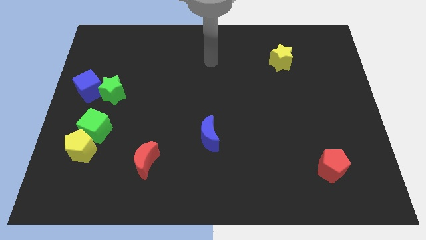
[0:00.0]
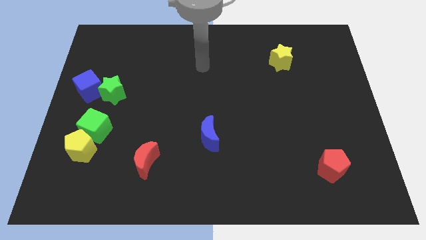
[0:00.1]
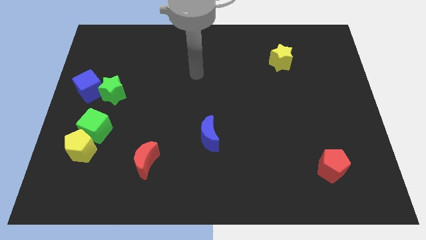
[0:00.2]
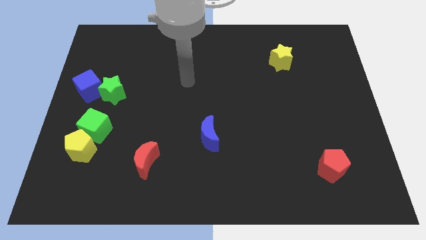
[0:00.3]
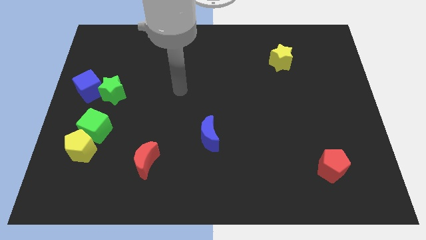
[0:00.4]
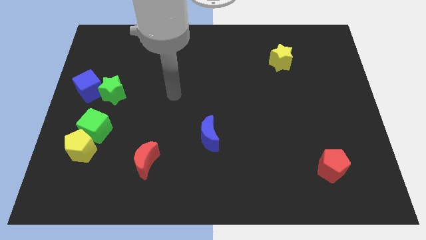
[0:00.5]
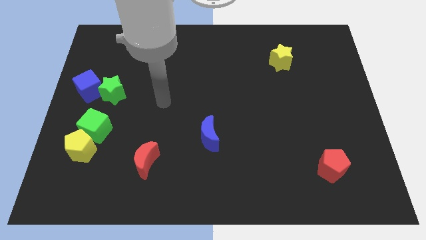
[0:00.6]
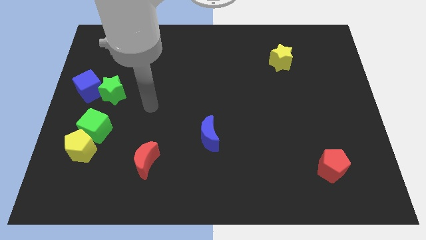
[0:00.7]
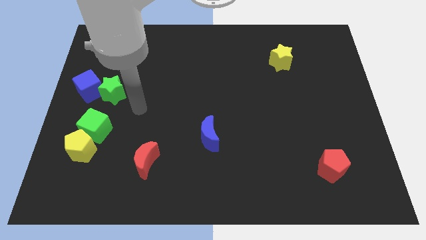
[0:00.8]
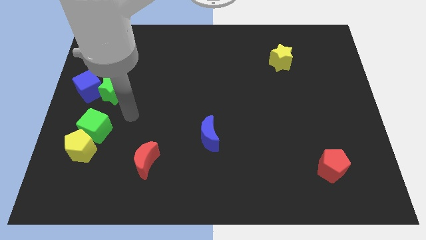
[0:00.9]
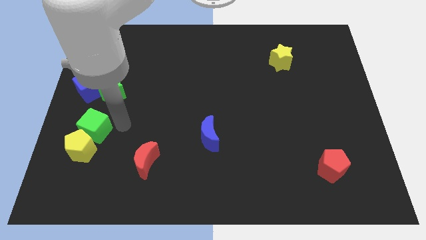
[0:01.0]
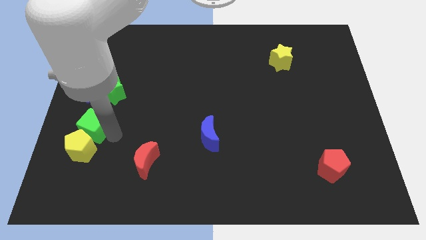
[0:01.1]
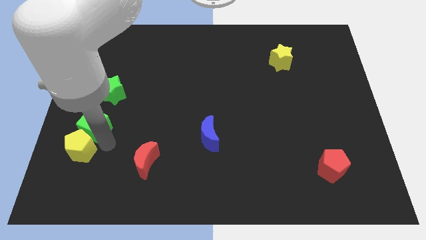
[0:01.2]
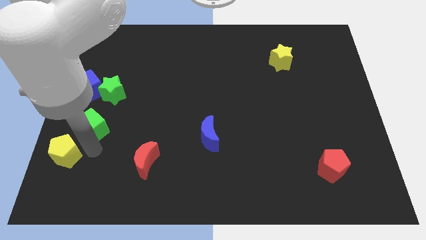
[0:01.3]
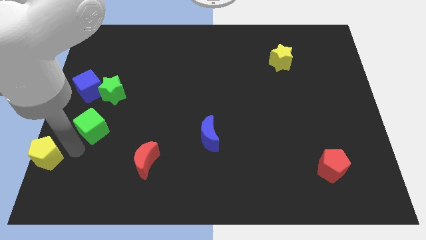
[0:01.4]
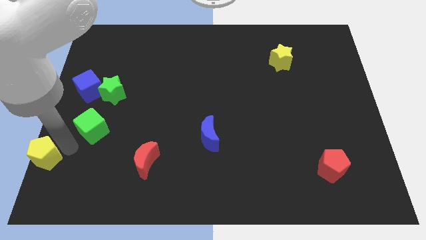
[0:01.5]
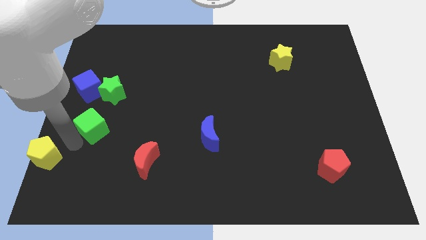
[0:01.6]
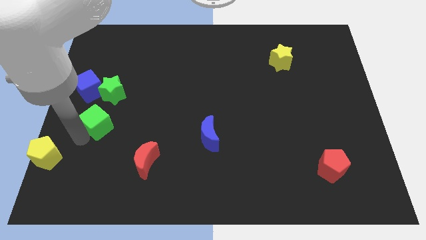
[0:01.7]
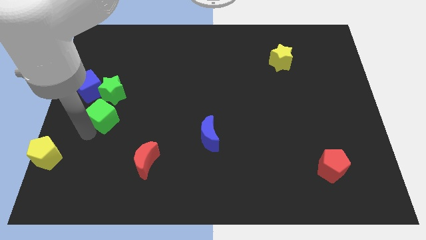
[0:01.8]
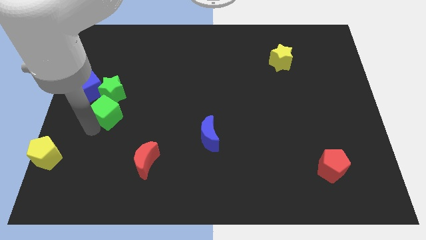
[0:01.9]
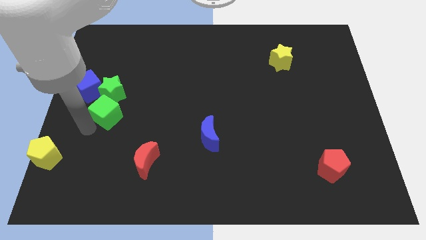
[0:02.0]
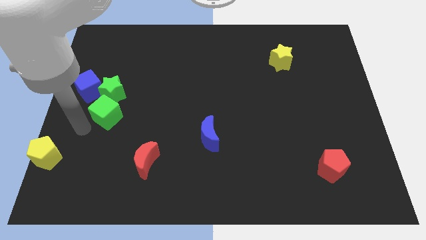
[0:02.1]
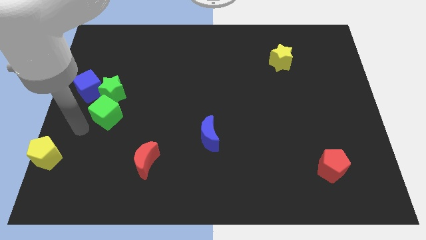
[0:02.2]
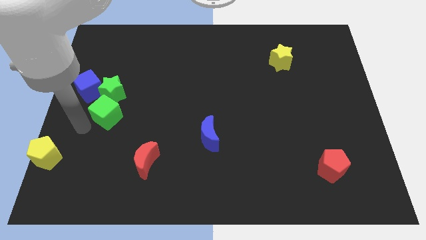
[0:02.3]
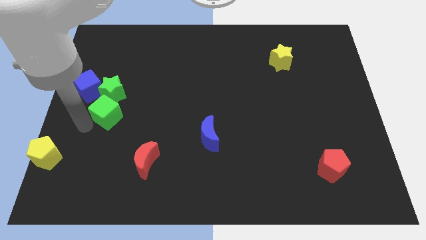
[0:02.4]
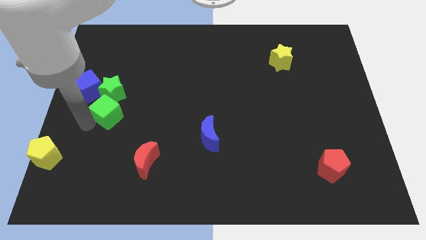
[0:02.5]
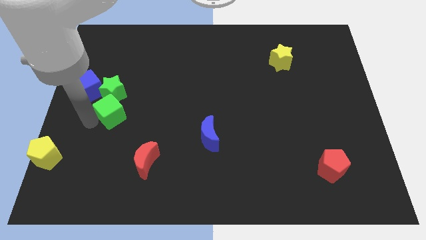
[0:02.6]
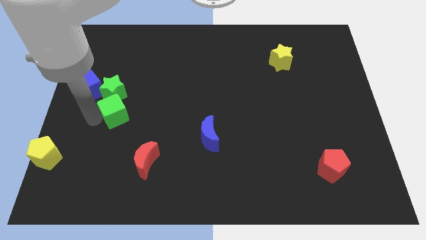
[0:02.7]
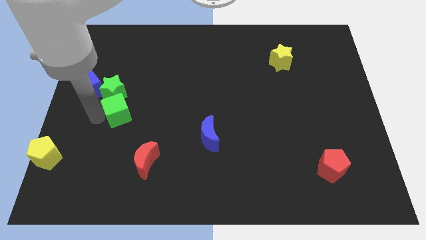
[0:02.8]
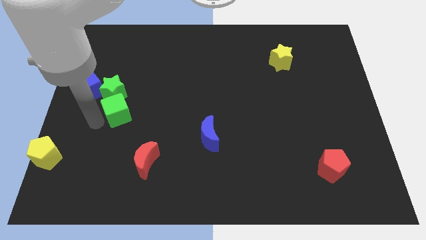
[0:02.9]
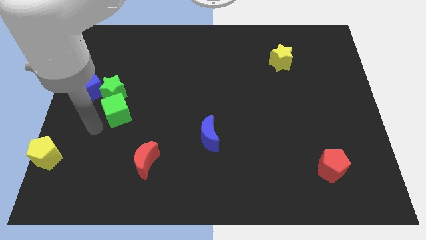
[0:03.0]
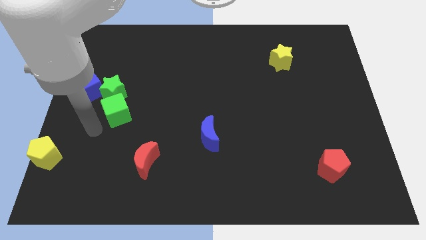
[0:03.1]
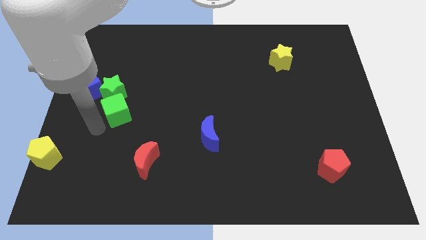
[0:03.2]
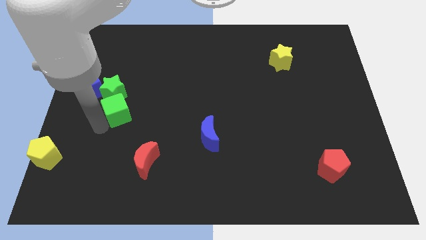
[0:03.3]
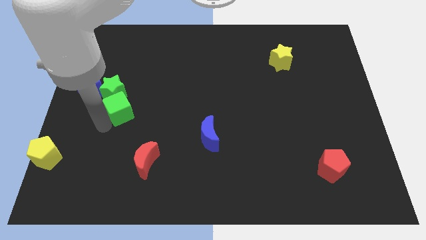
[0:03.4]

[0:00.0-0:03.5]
slightly slide the green cube upwards and right

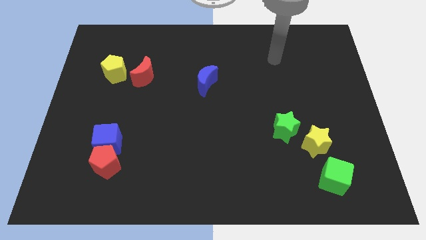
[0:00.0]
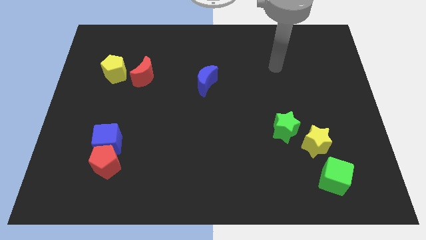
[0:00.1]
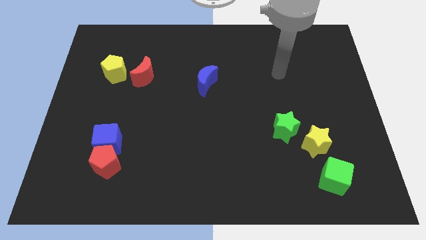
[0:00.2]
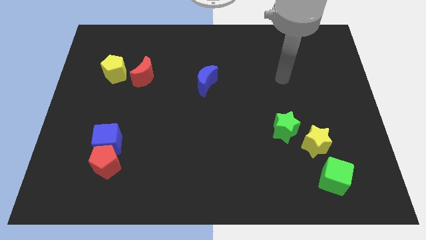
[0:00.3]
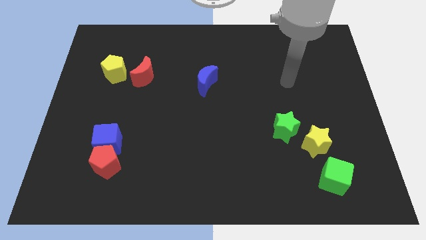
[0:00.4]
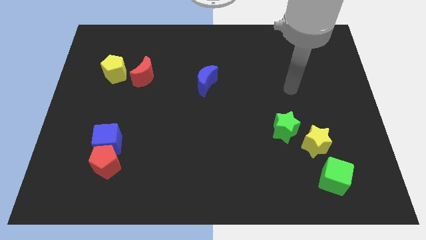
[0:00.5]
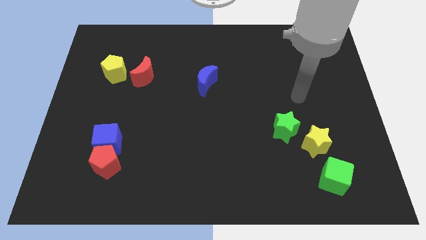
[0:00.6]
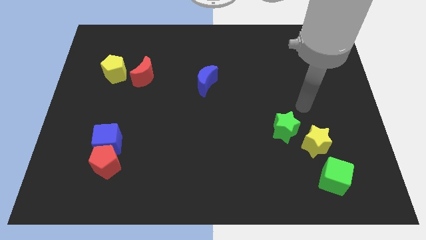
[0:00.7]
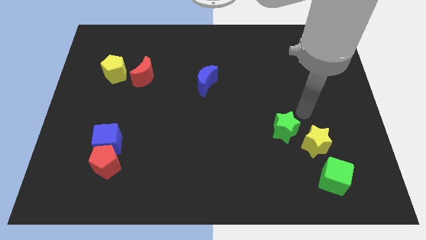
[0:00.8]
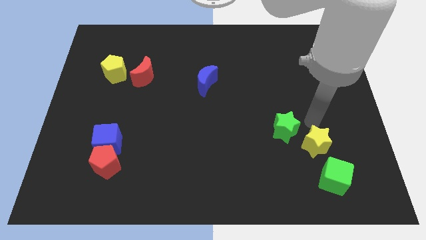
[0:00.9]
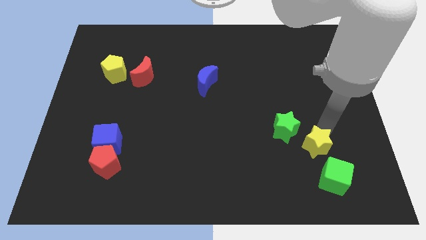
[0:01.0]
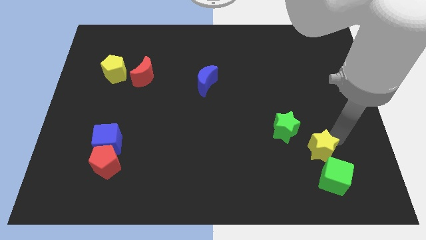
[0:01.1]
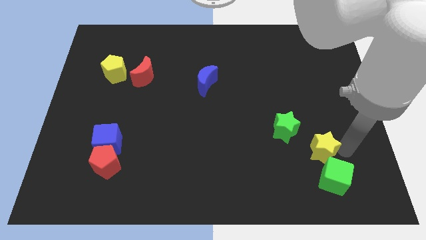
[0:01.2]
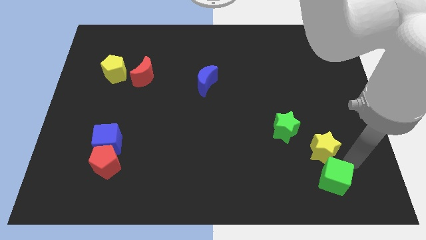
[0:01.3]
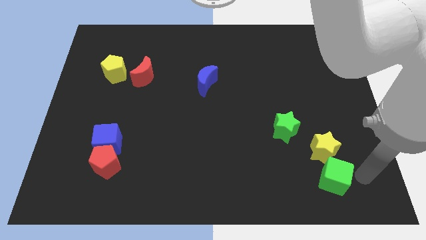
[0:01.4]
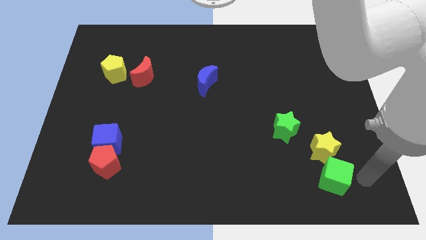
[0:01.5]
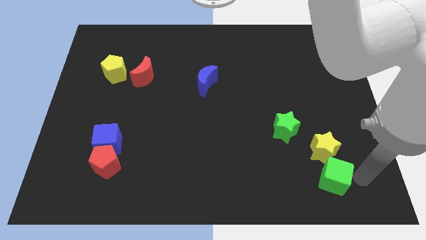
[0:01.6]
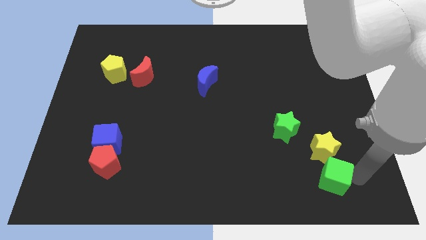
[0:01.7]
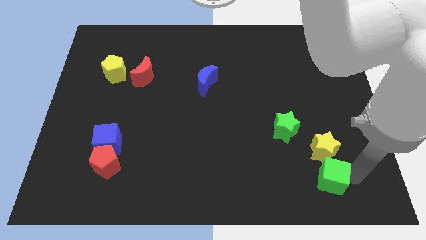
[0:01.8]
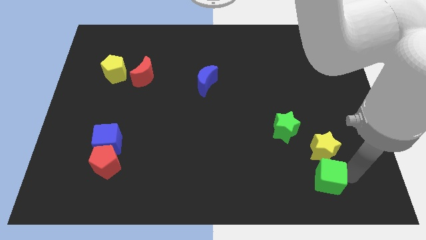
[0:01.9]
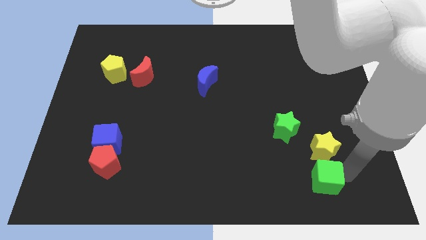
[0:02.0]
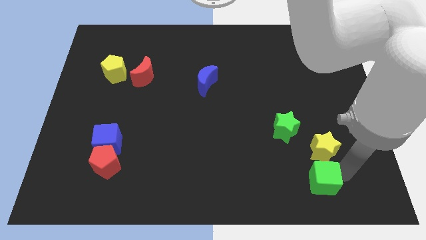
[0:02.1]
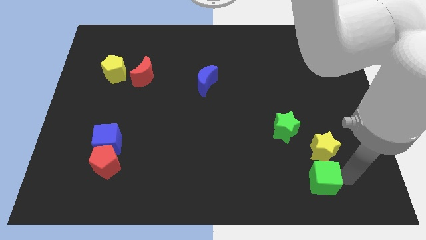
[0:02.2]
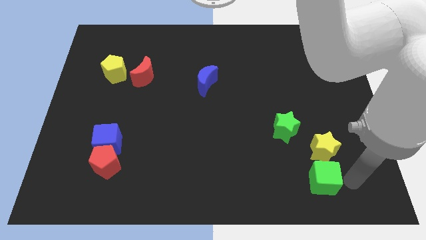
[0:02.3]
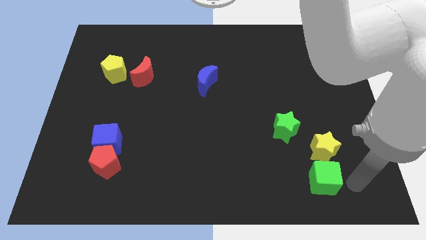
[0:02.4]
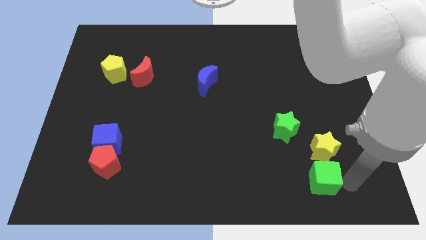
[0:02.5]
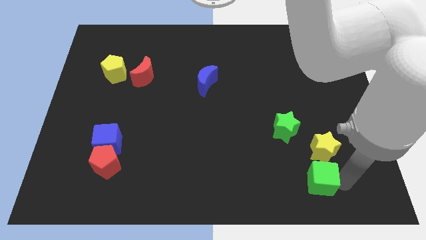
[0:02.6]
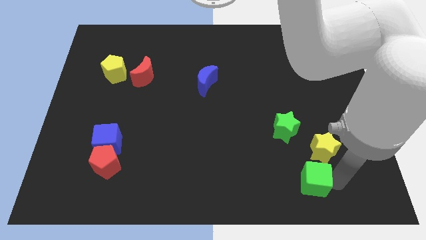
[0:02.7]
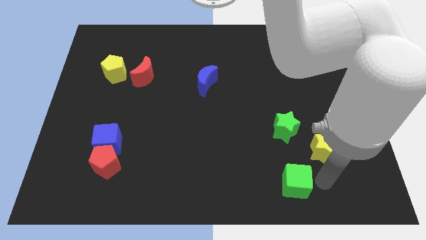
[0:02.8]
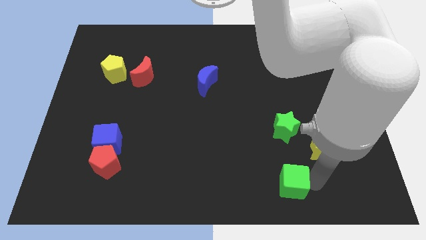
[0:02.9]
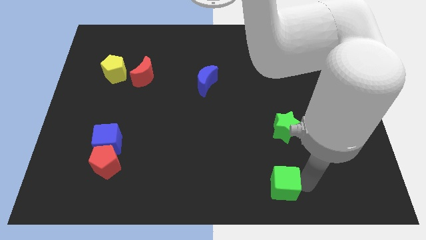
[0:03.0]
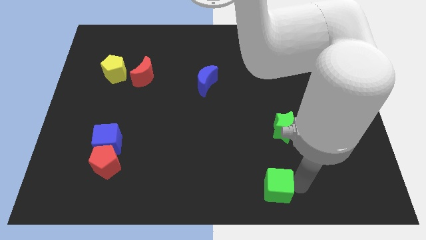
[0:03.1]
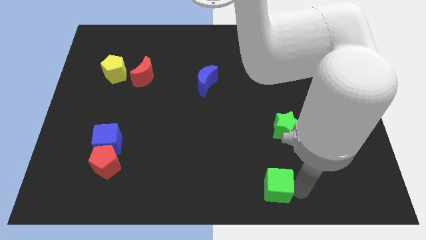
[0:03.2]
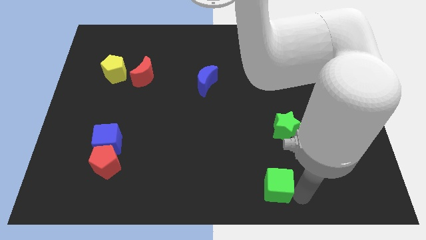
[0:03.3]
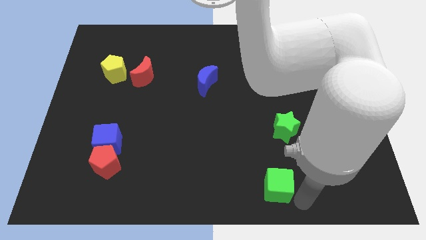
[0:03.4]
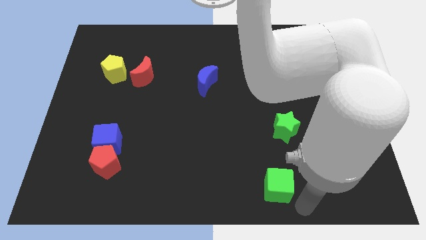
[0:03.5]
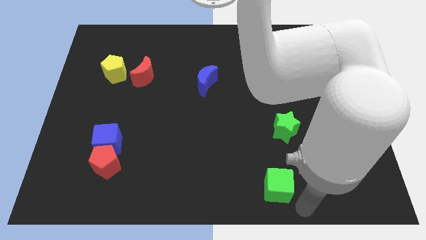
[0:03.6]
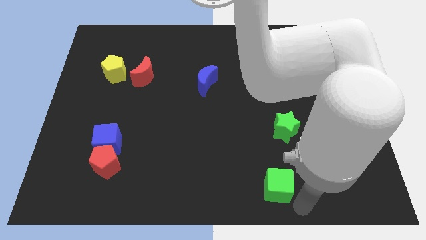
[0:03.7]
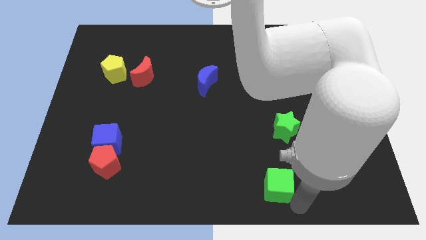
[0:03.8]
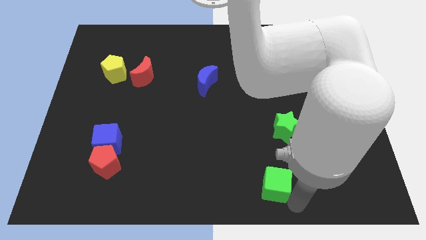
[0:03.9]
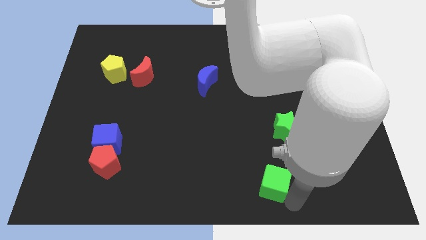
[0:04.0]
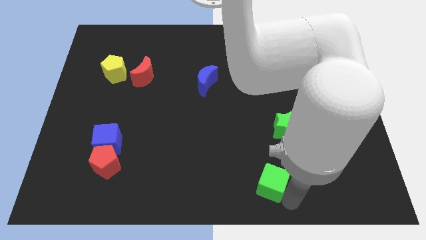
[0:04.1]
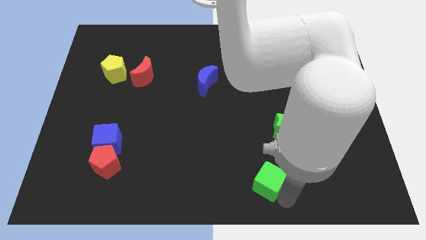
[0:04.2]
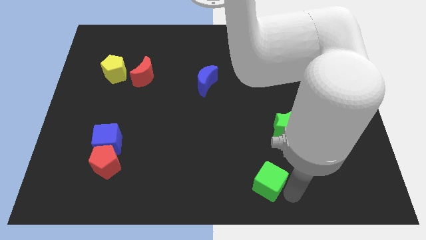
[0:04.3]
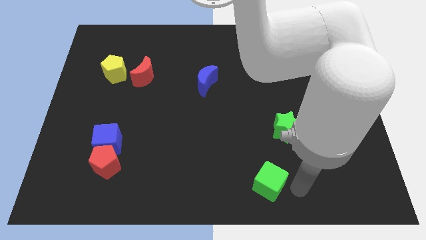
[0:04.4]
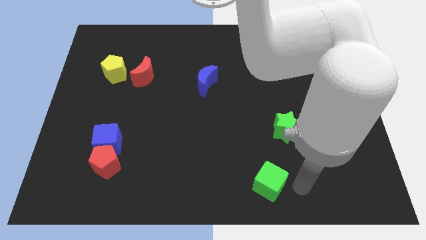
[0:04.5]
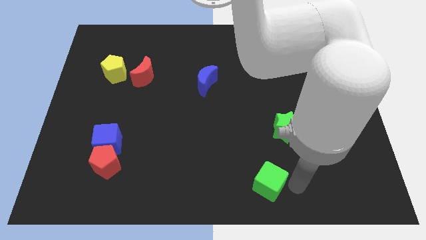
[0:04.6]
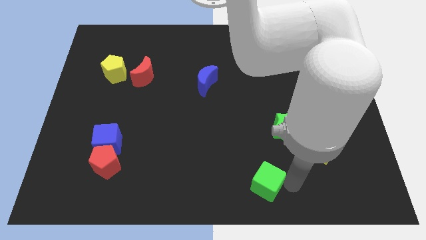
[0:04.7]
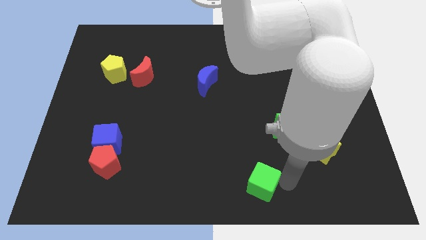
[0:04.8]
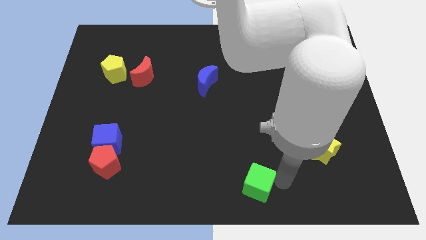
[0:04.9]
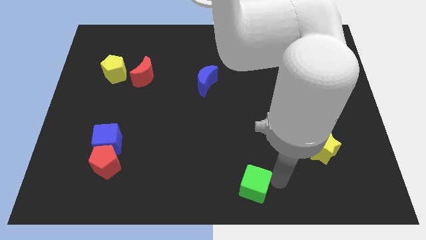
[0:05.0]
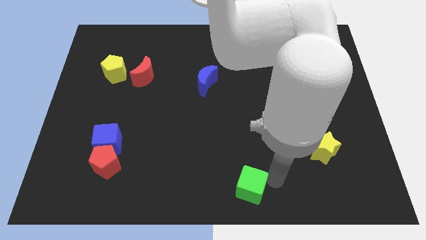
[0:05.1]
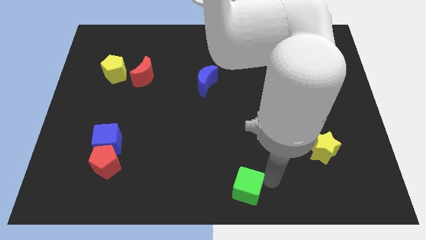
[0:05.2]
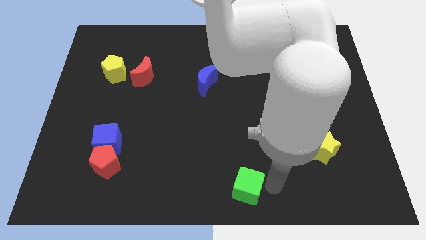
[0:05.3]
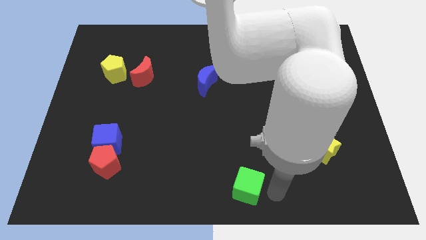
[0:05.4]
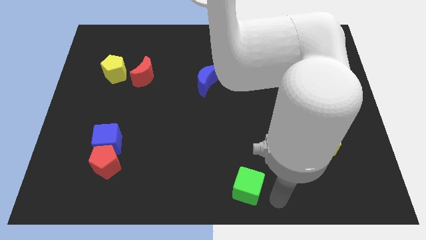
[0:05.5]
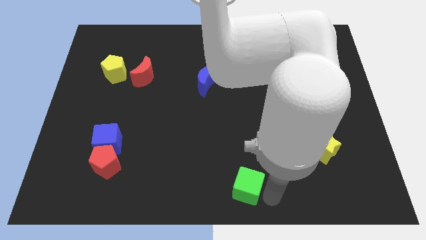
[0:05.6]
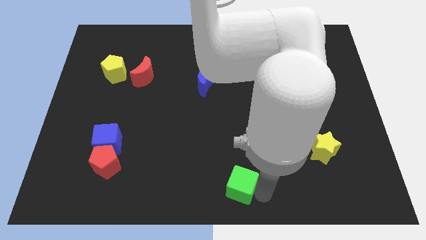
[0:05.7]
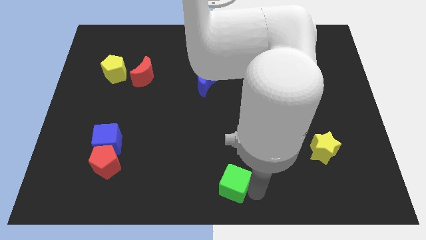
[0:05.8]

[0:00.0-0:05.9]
push the green cube to the left
